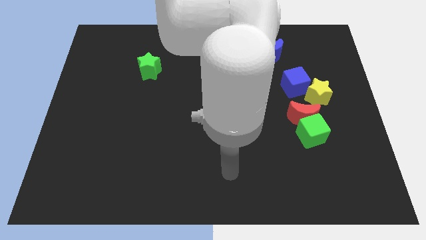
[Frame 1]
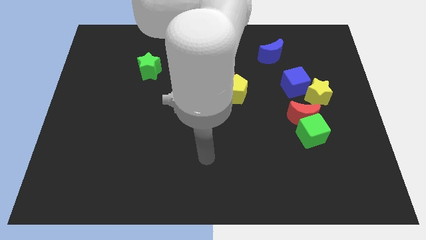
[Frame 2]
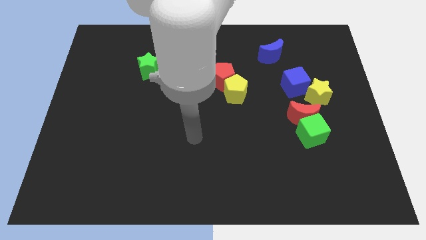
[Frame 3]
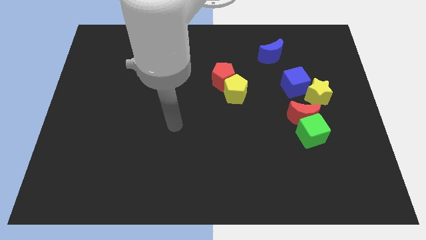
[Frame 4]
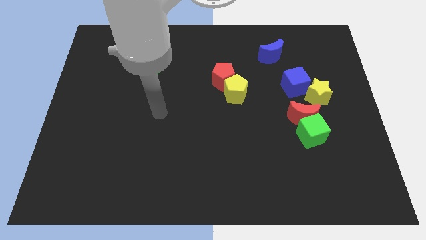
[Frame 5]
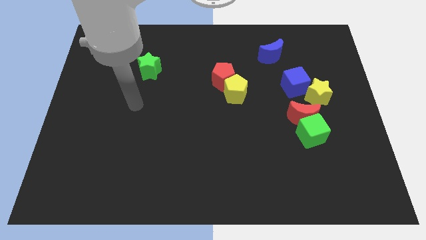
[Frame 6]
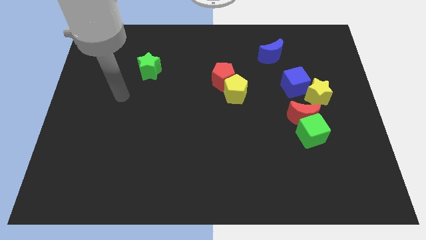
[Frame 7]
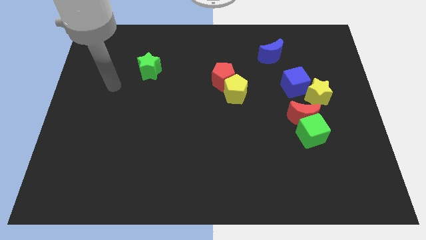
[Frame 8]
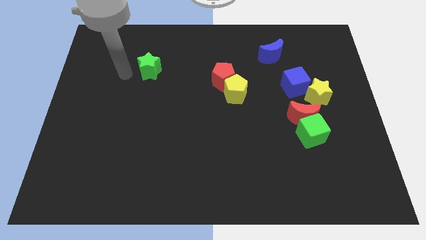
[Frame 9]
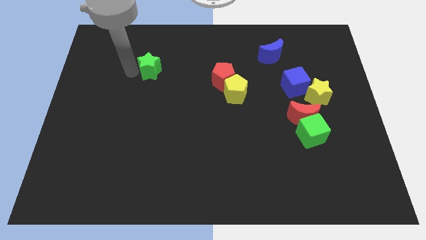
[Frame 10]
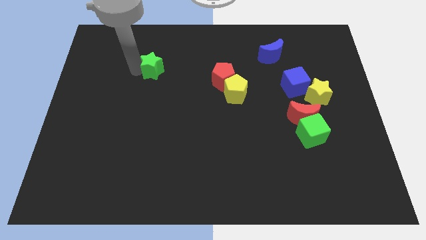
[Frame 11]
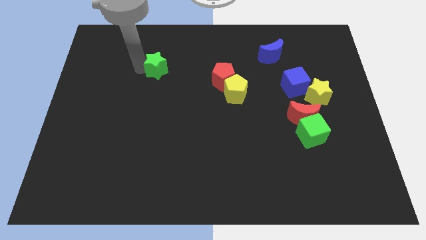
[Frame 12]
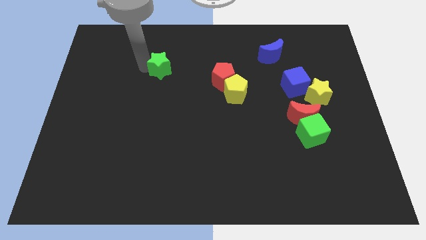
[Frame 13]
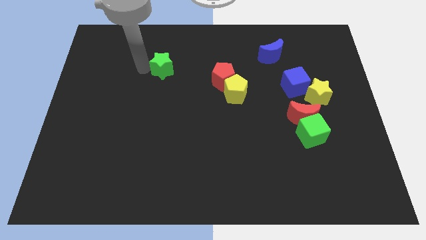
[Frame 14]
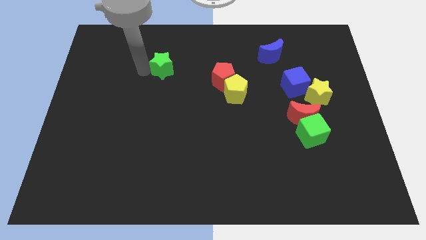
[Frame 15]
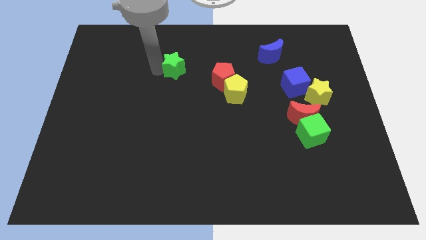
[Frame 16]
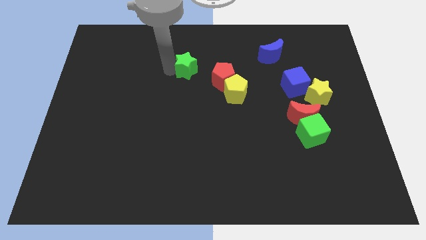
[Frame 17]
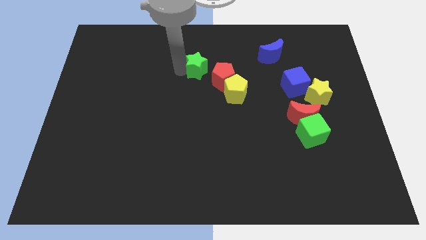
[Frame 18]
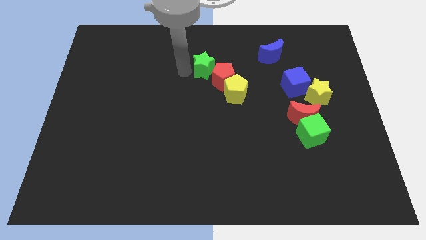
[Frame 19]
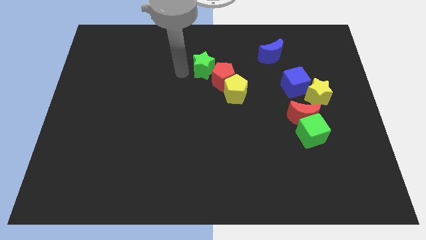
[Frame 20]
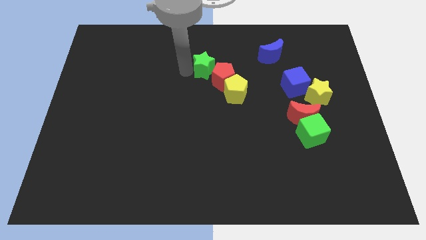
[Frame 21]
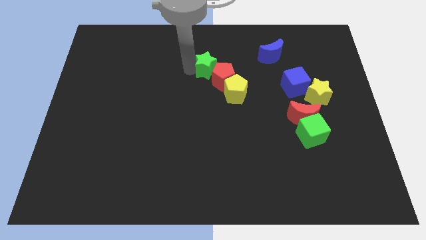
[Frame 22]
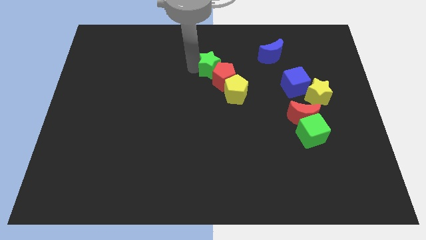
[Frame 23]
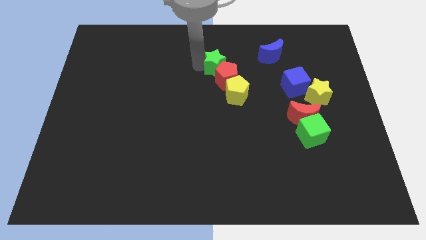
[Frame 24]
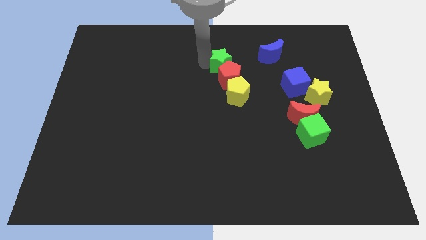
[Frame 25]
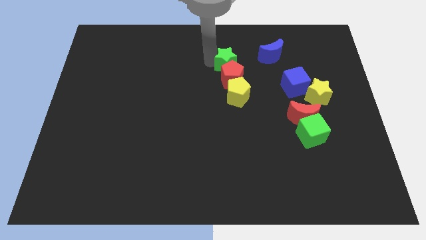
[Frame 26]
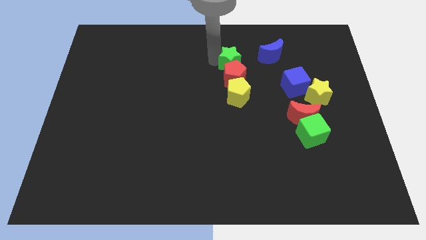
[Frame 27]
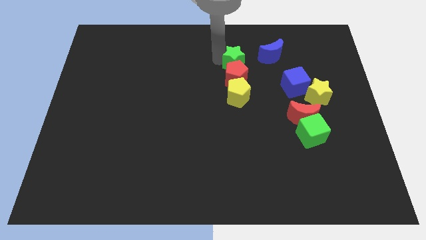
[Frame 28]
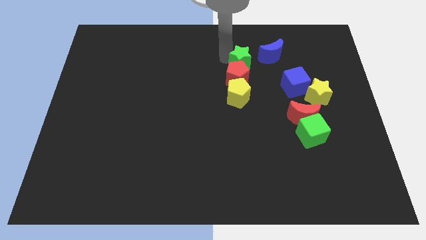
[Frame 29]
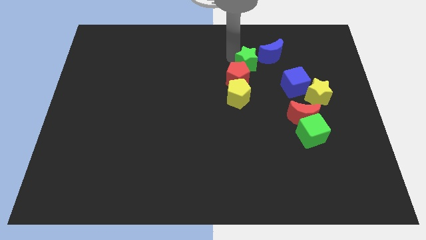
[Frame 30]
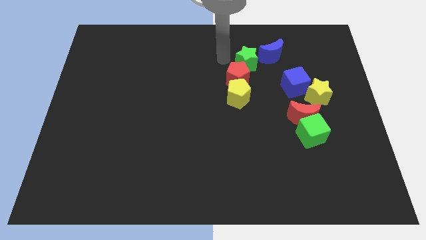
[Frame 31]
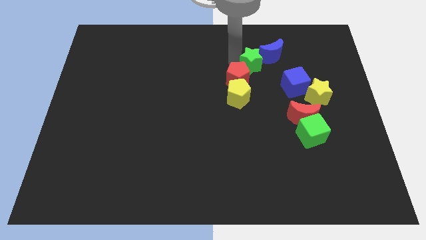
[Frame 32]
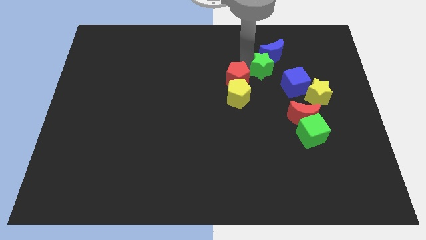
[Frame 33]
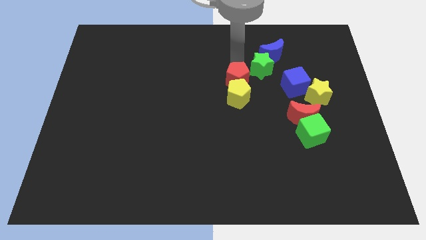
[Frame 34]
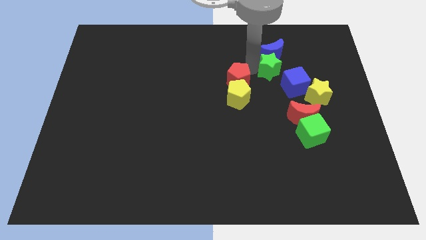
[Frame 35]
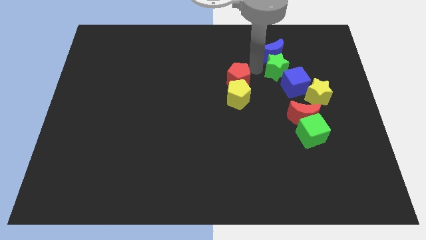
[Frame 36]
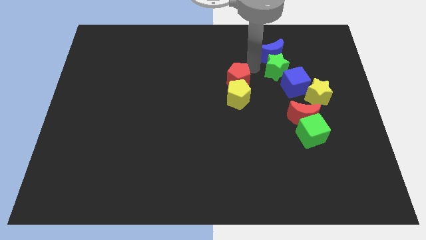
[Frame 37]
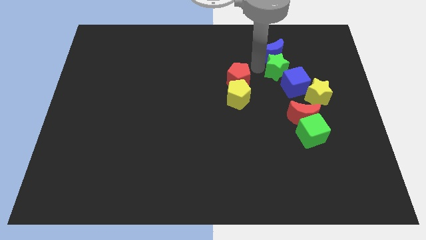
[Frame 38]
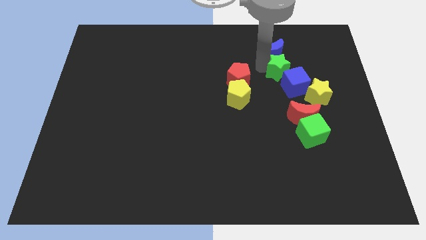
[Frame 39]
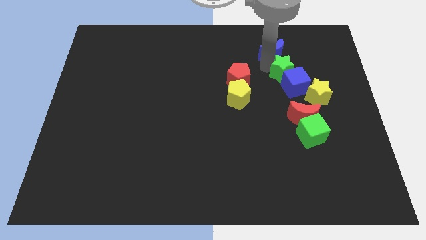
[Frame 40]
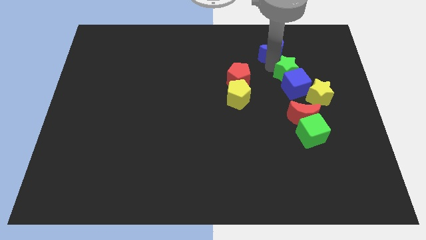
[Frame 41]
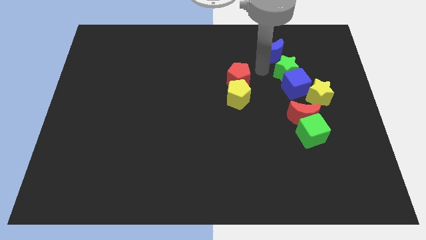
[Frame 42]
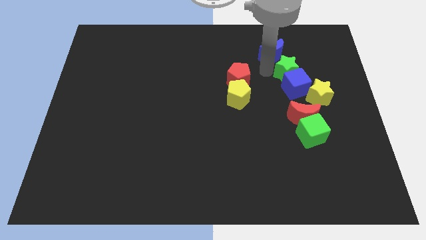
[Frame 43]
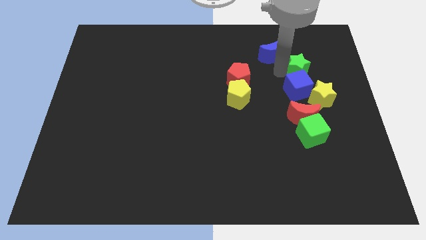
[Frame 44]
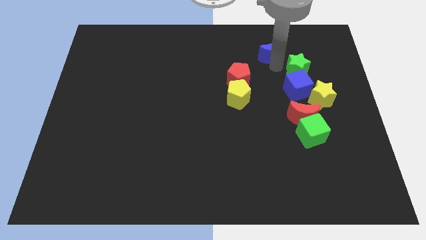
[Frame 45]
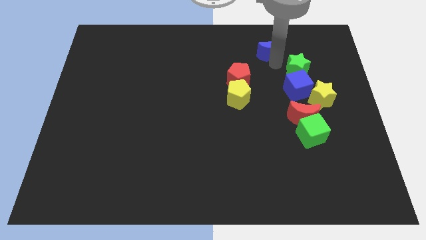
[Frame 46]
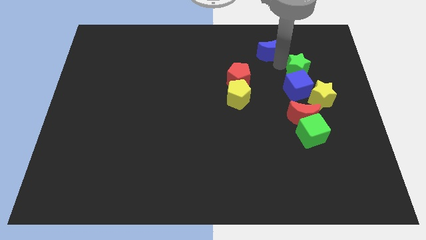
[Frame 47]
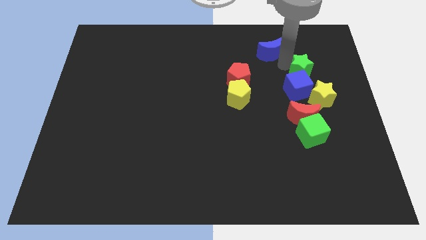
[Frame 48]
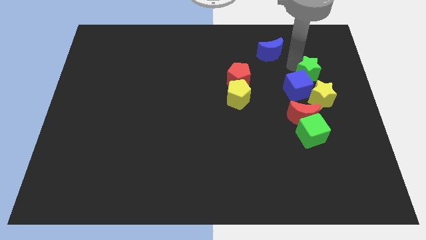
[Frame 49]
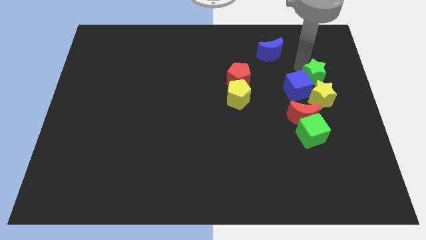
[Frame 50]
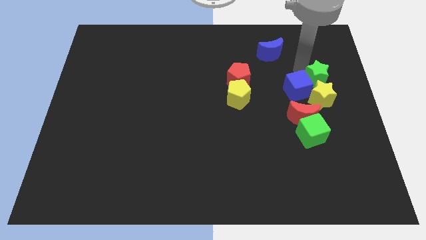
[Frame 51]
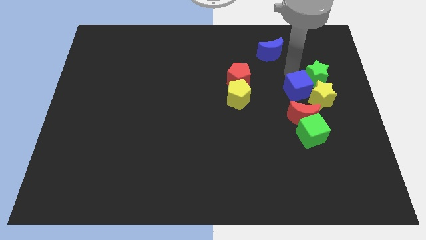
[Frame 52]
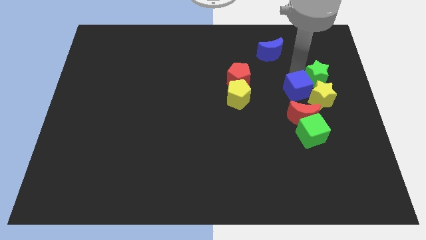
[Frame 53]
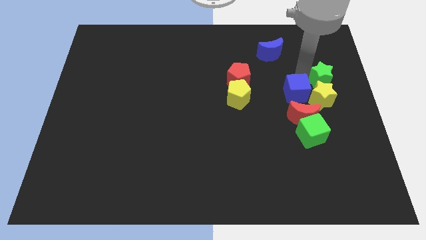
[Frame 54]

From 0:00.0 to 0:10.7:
move the green star to the right side of the board

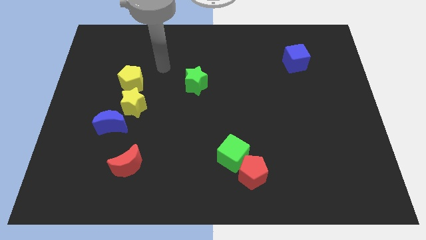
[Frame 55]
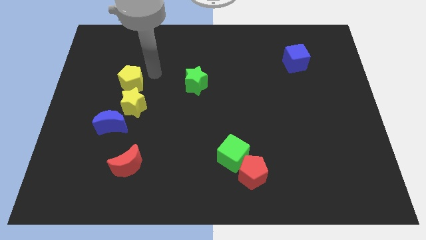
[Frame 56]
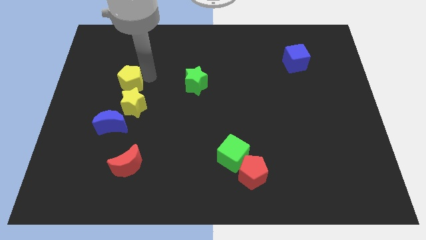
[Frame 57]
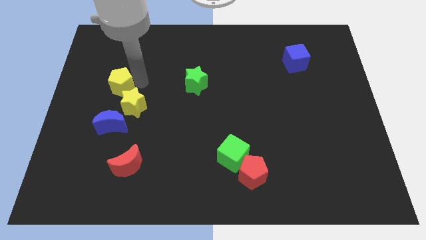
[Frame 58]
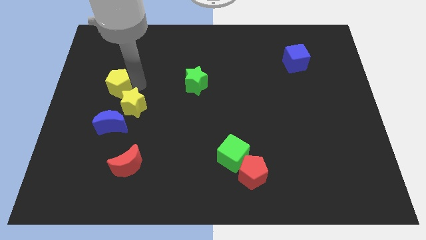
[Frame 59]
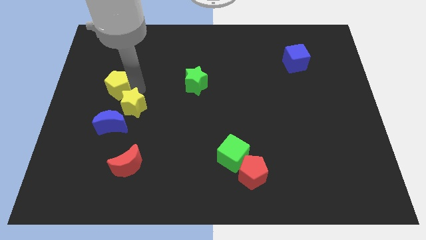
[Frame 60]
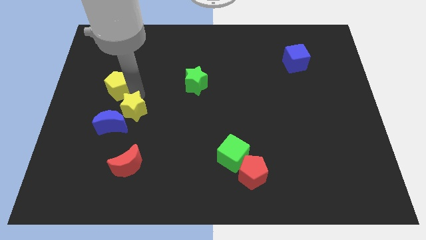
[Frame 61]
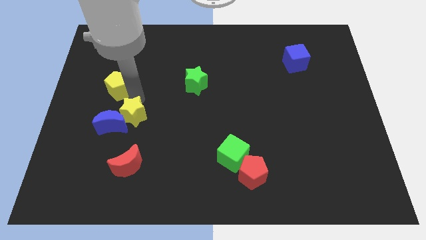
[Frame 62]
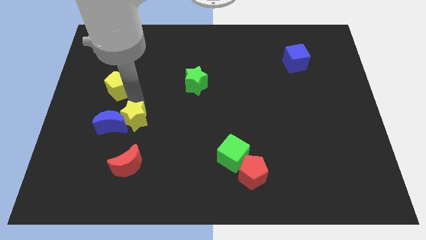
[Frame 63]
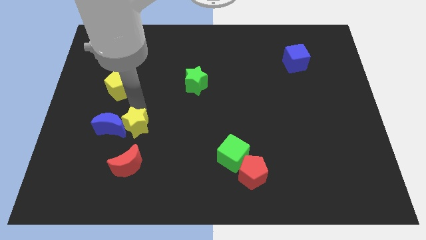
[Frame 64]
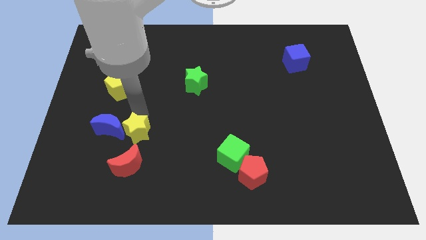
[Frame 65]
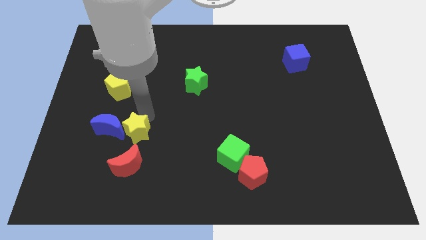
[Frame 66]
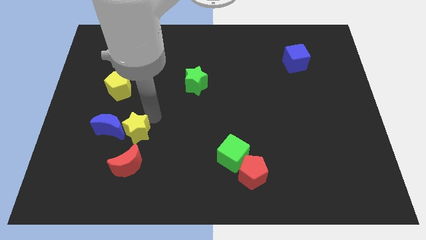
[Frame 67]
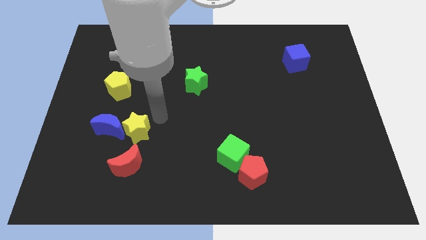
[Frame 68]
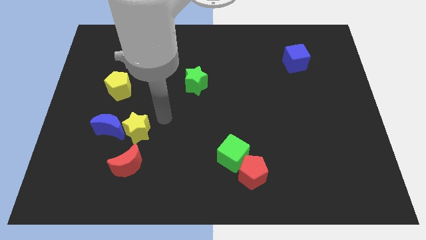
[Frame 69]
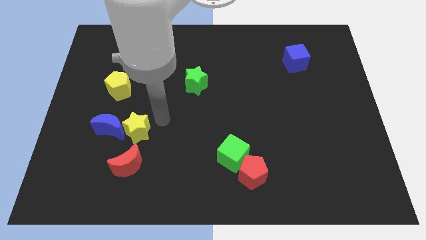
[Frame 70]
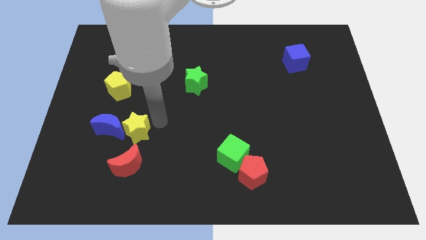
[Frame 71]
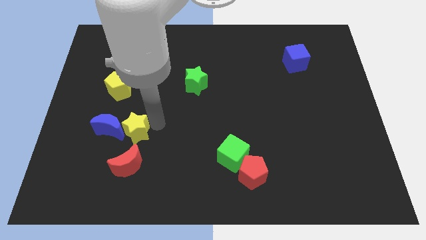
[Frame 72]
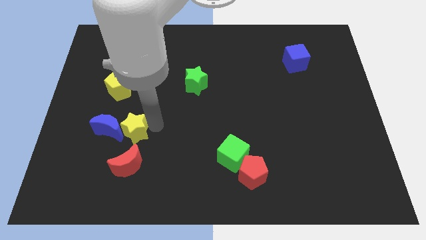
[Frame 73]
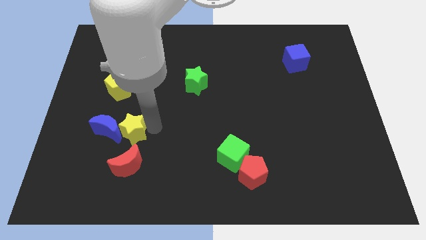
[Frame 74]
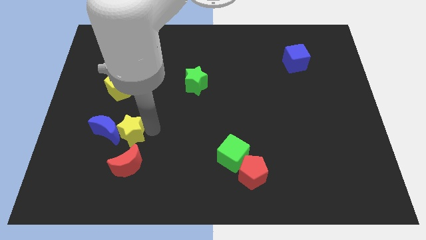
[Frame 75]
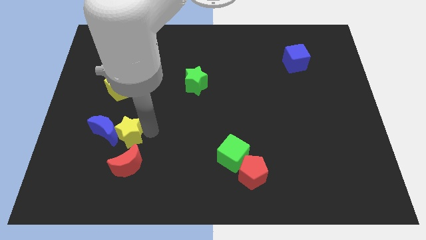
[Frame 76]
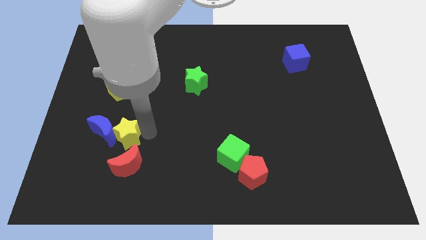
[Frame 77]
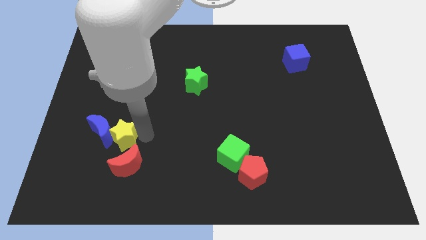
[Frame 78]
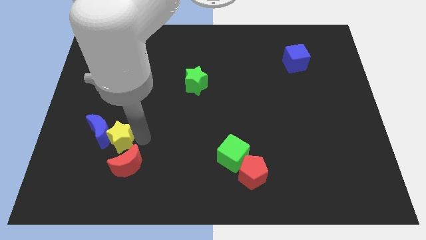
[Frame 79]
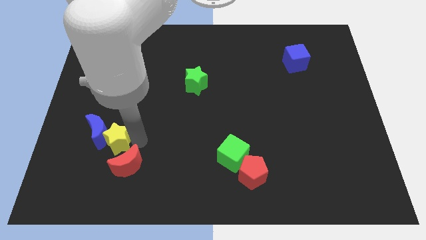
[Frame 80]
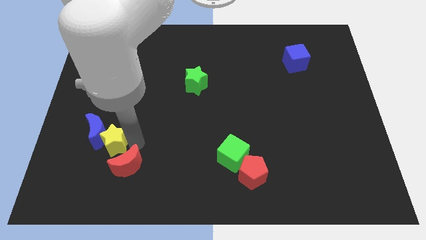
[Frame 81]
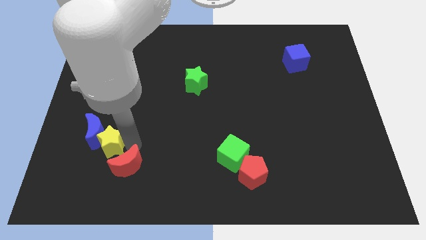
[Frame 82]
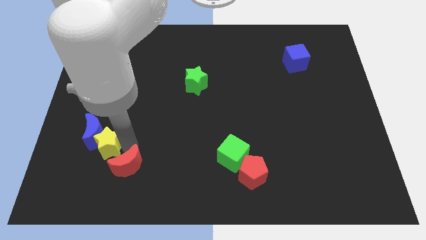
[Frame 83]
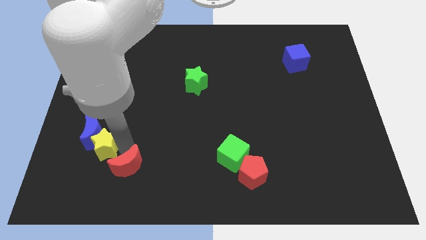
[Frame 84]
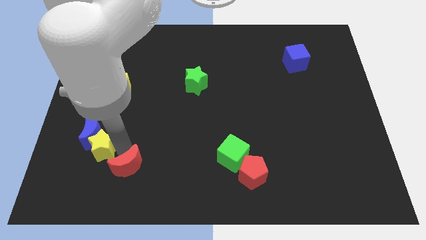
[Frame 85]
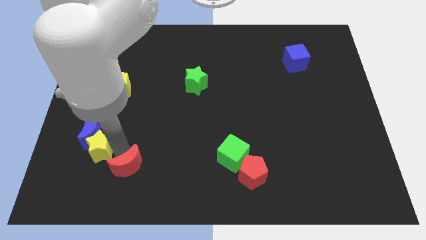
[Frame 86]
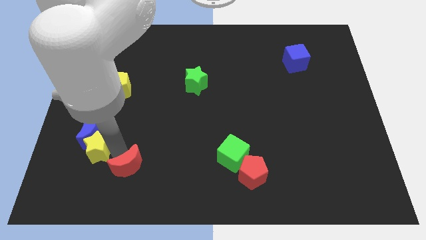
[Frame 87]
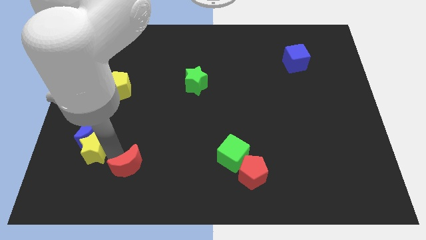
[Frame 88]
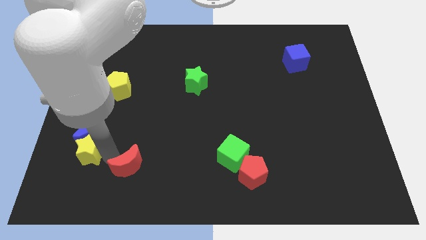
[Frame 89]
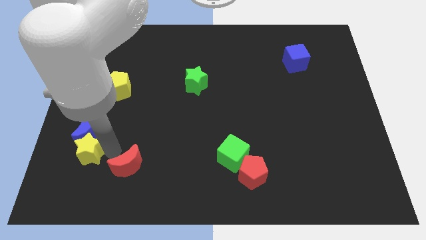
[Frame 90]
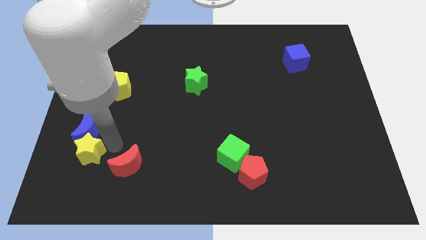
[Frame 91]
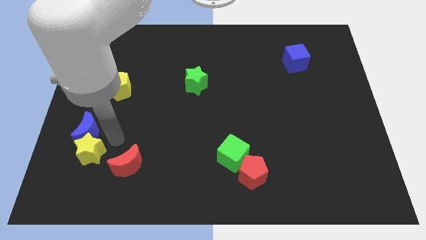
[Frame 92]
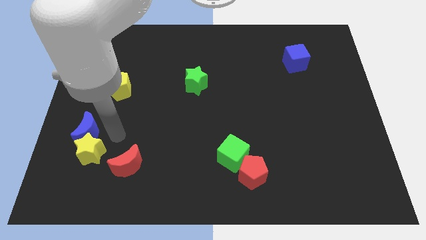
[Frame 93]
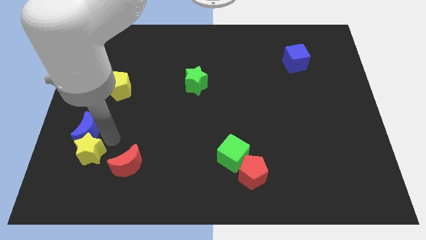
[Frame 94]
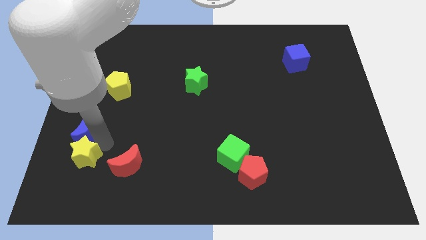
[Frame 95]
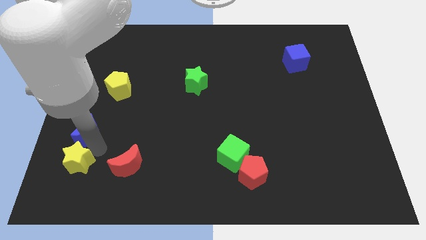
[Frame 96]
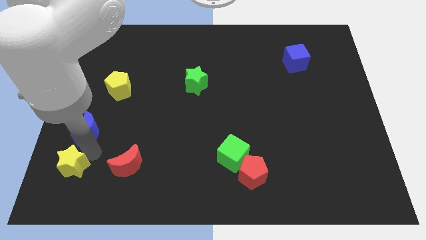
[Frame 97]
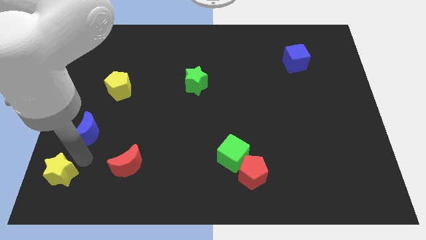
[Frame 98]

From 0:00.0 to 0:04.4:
move the yellow star to the bottom left of the board
